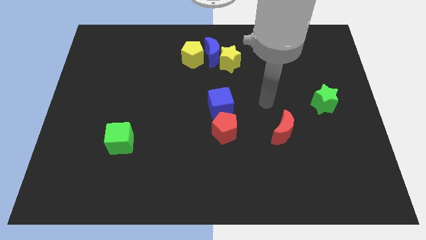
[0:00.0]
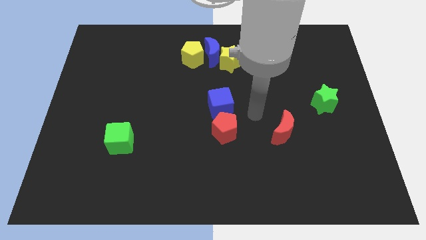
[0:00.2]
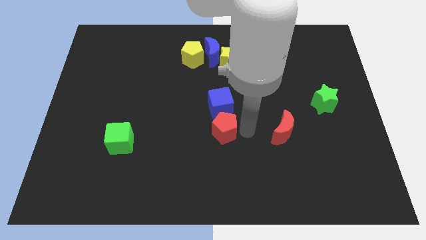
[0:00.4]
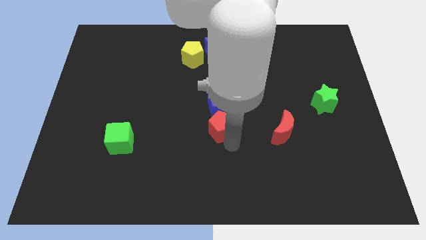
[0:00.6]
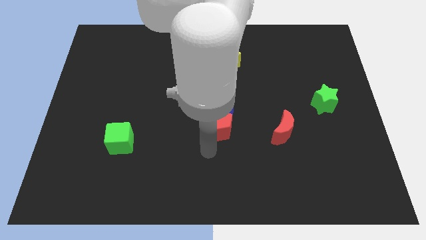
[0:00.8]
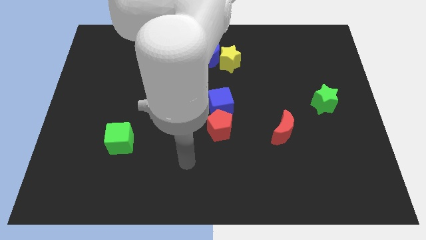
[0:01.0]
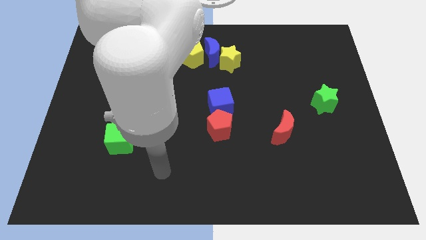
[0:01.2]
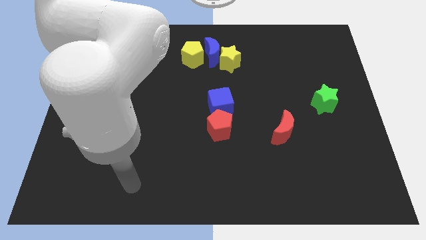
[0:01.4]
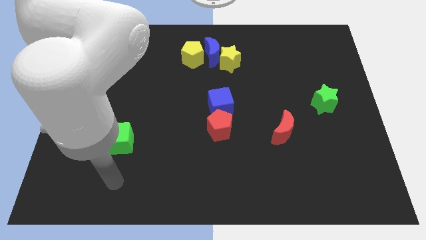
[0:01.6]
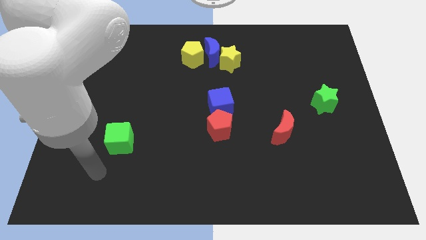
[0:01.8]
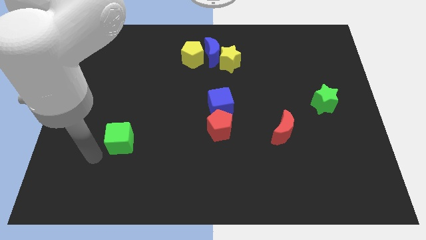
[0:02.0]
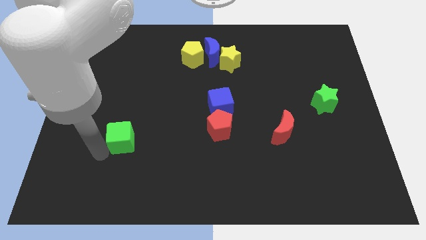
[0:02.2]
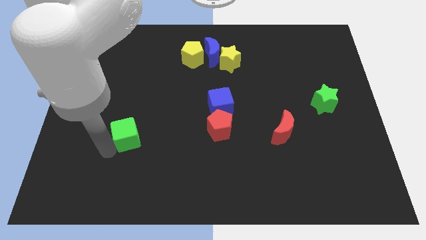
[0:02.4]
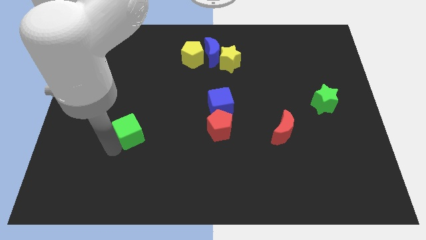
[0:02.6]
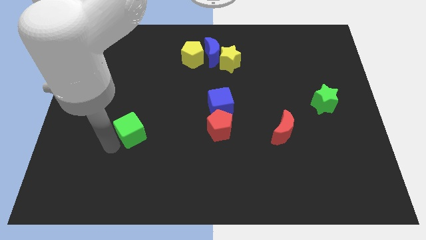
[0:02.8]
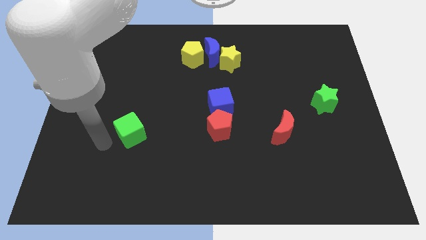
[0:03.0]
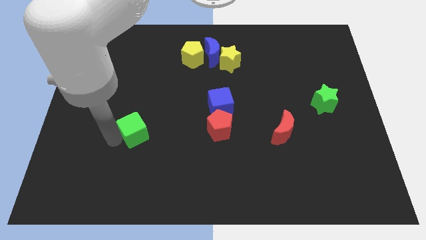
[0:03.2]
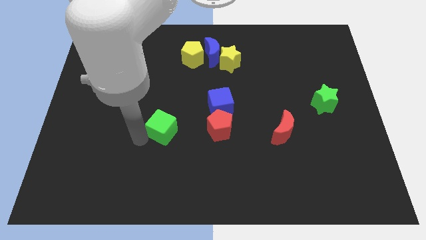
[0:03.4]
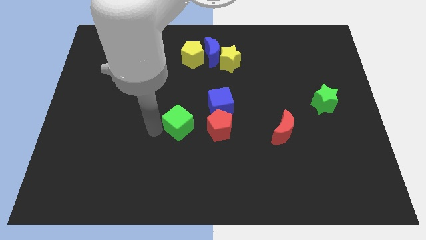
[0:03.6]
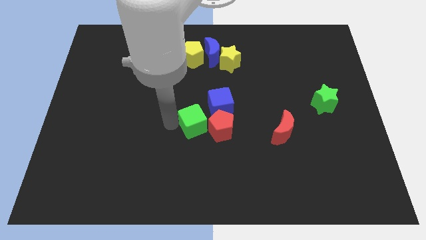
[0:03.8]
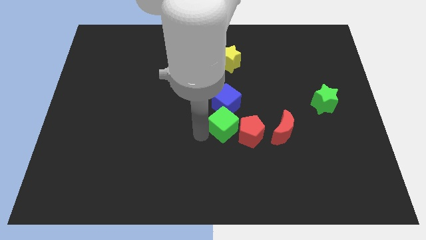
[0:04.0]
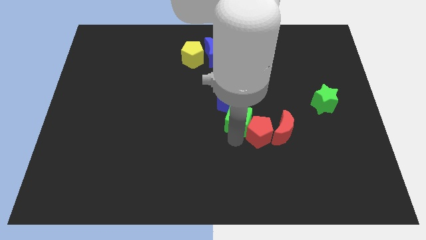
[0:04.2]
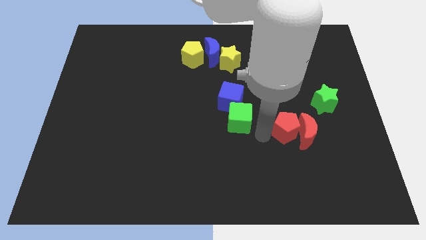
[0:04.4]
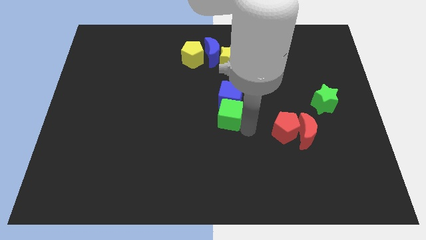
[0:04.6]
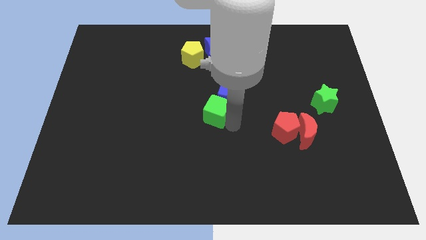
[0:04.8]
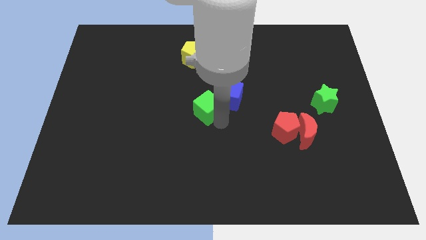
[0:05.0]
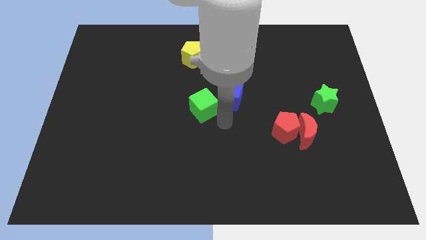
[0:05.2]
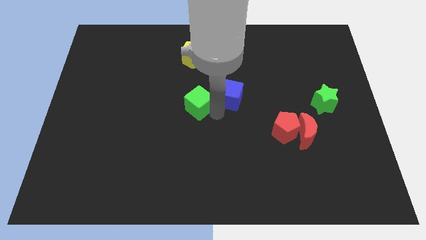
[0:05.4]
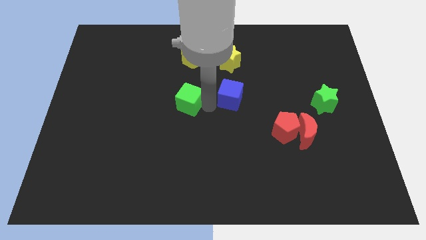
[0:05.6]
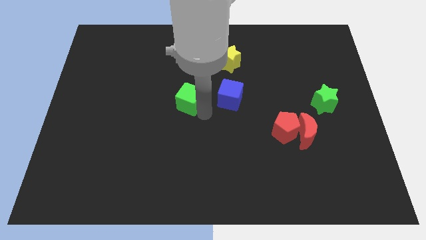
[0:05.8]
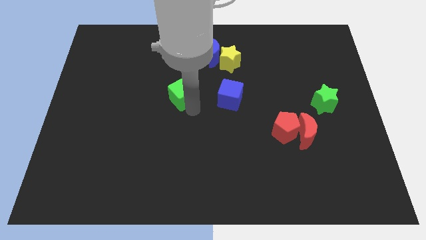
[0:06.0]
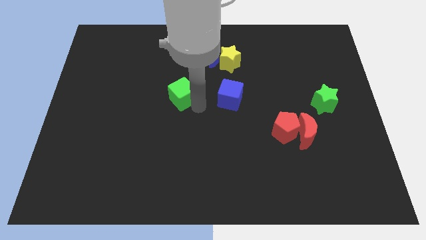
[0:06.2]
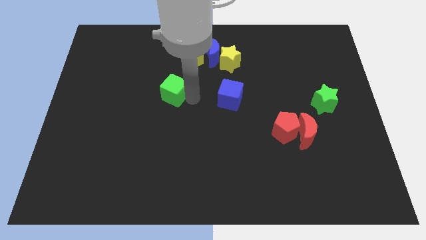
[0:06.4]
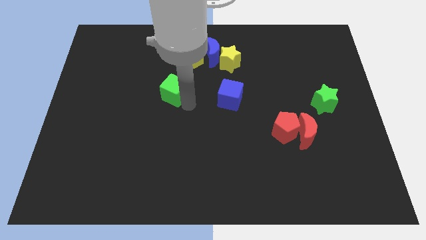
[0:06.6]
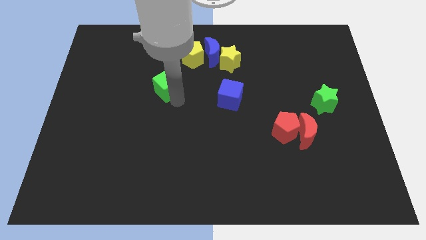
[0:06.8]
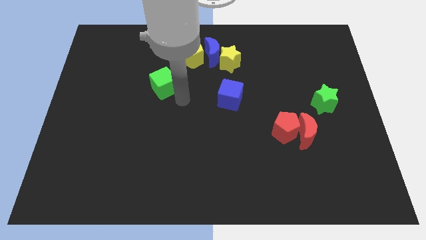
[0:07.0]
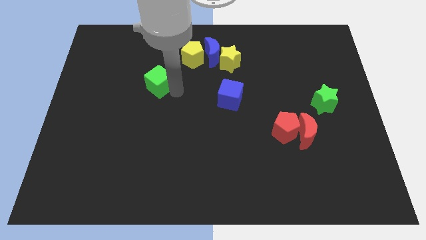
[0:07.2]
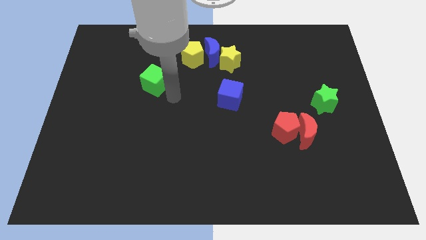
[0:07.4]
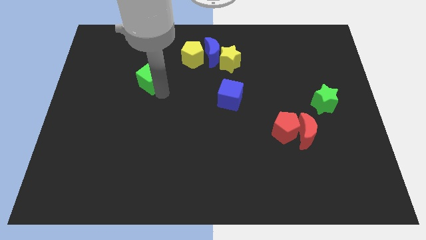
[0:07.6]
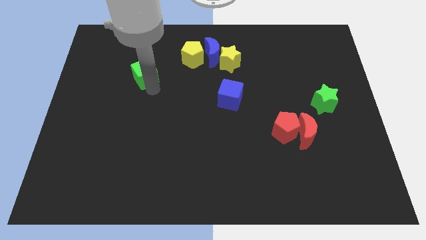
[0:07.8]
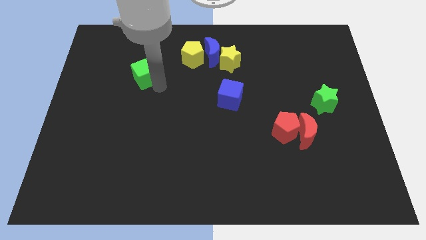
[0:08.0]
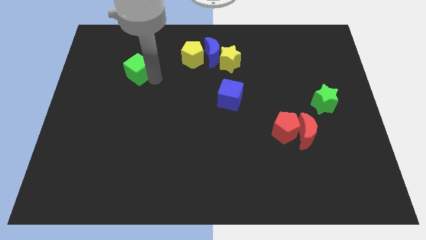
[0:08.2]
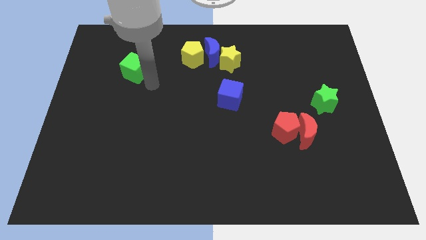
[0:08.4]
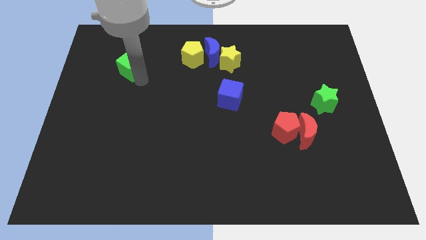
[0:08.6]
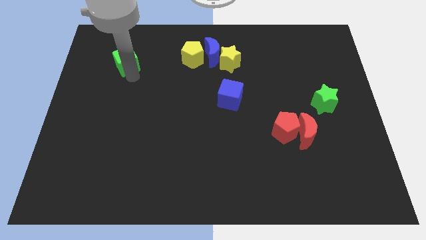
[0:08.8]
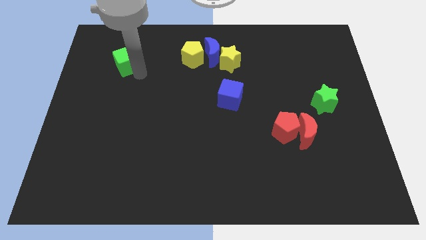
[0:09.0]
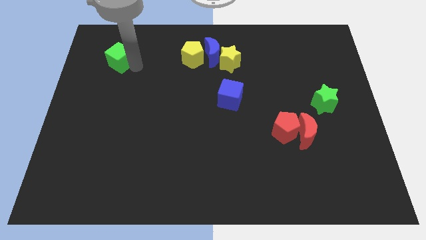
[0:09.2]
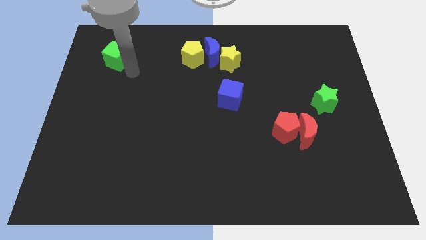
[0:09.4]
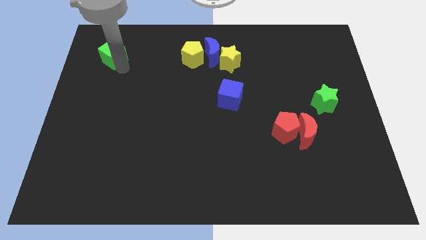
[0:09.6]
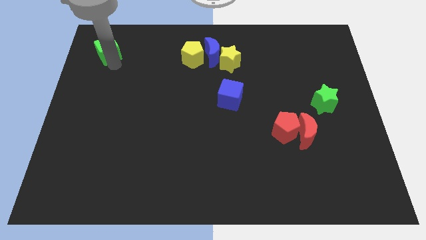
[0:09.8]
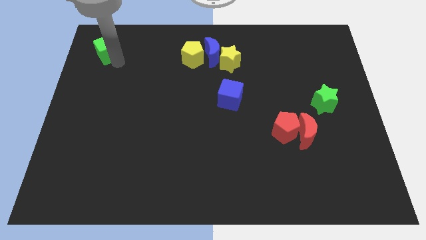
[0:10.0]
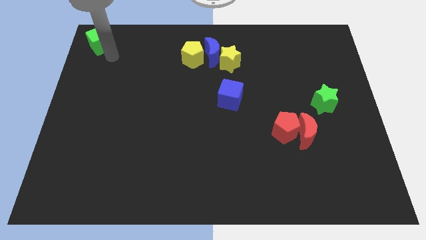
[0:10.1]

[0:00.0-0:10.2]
push the green cube to the top left

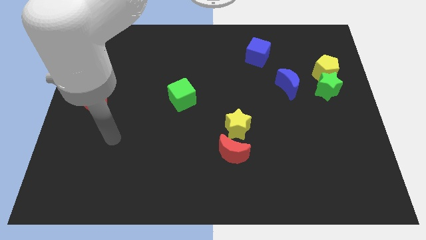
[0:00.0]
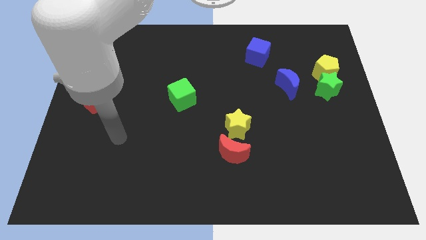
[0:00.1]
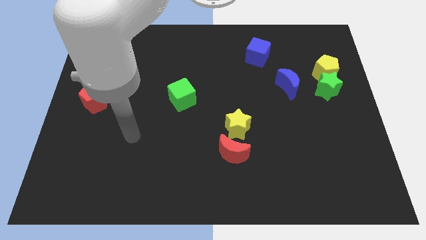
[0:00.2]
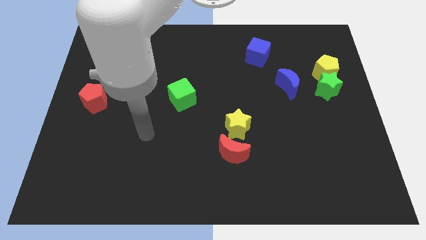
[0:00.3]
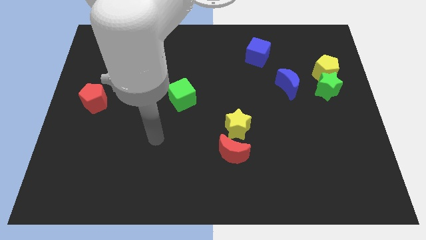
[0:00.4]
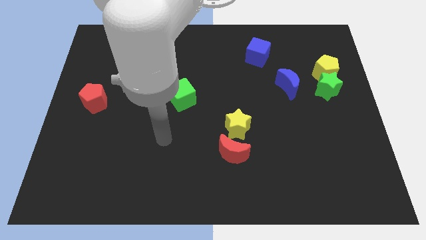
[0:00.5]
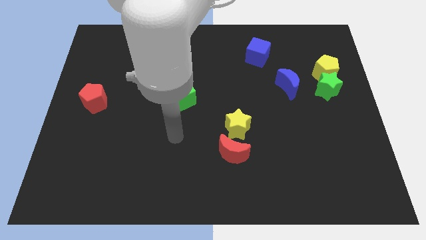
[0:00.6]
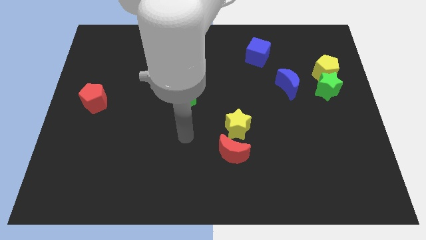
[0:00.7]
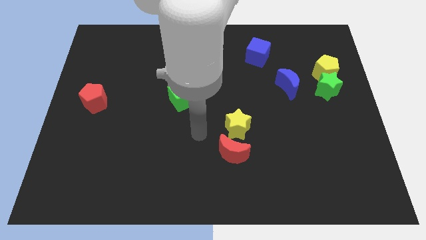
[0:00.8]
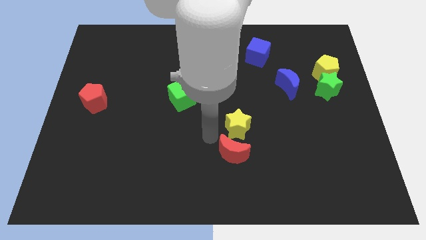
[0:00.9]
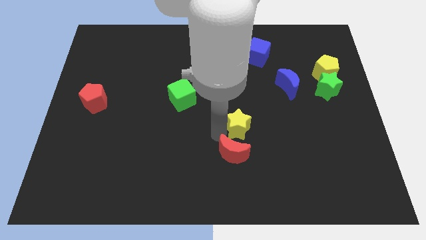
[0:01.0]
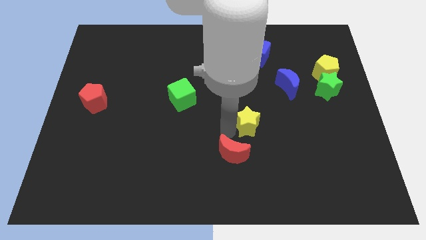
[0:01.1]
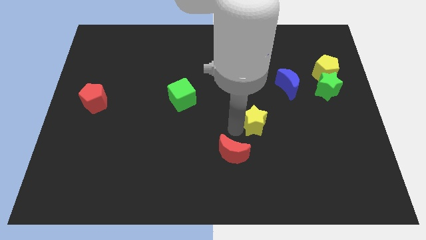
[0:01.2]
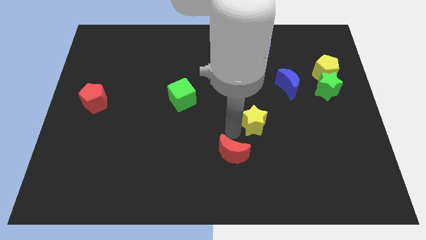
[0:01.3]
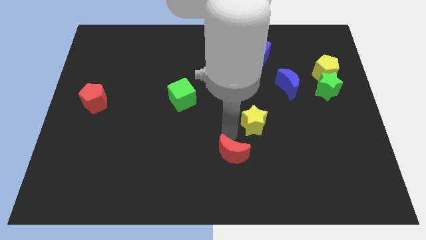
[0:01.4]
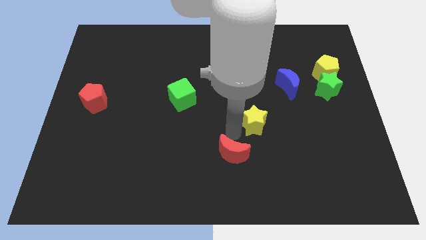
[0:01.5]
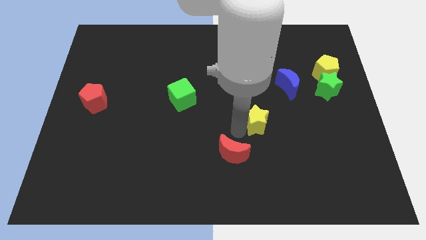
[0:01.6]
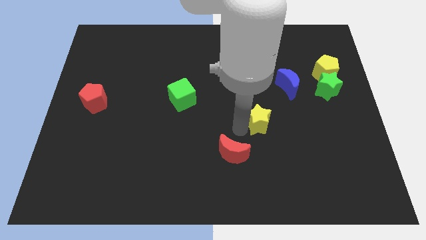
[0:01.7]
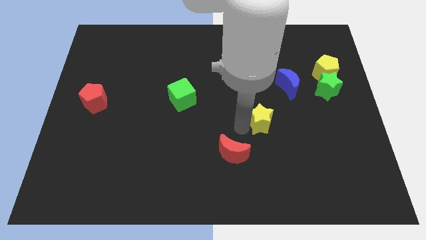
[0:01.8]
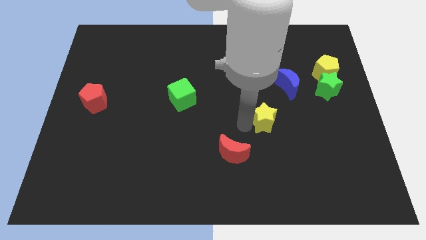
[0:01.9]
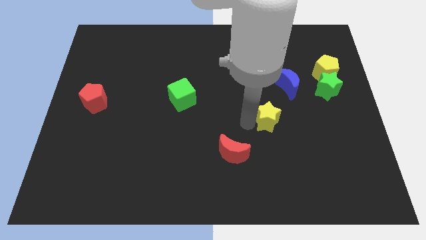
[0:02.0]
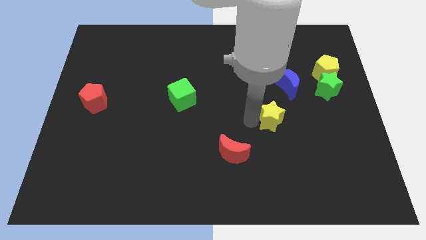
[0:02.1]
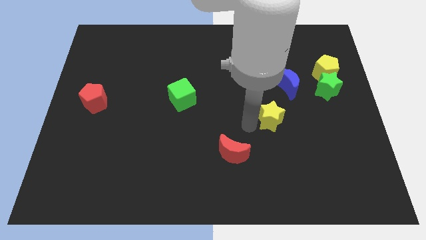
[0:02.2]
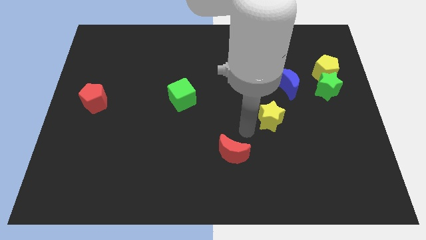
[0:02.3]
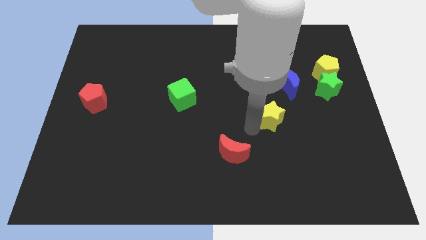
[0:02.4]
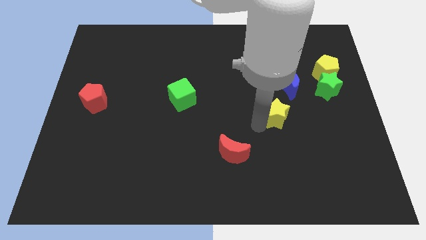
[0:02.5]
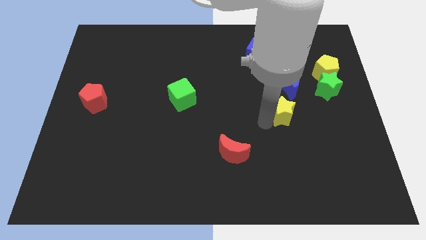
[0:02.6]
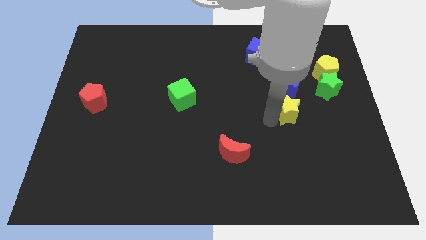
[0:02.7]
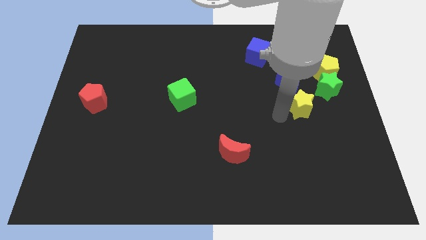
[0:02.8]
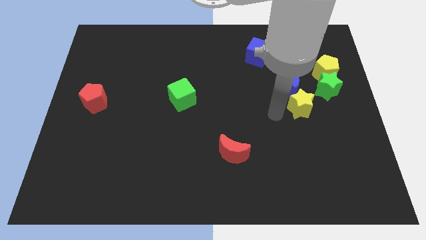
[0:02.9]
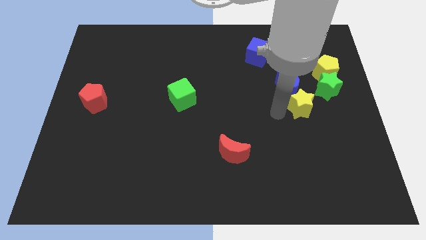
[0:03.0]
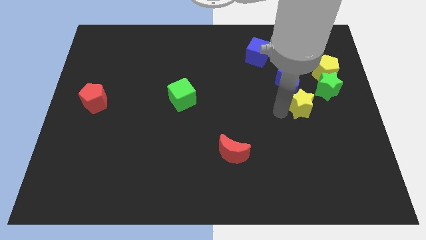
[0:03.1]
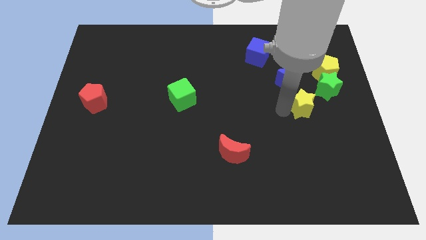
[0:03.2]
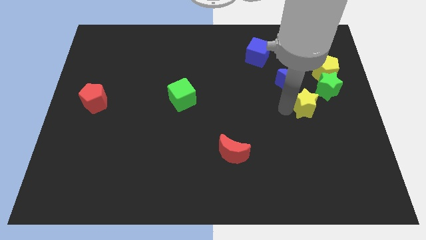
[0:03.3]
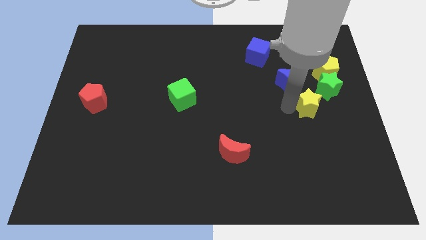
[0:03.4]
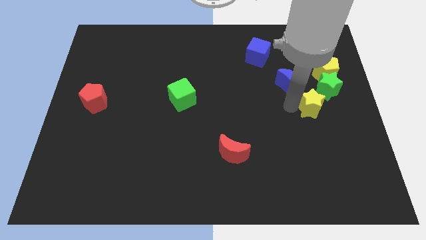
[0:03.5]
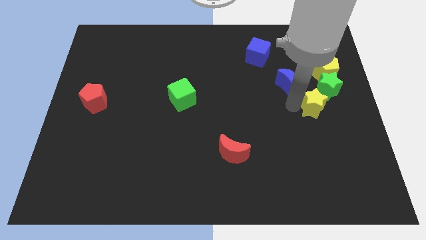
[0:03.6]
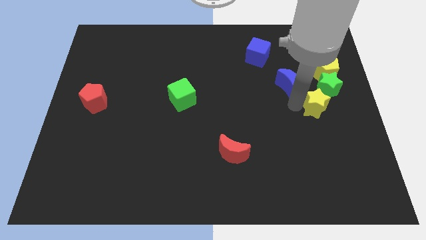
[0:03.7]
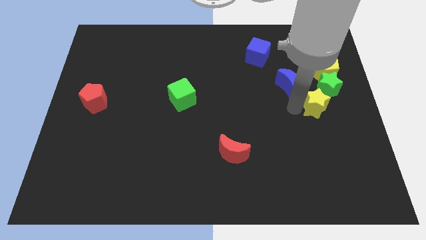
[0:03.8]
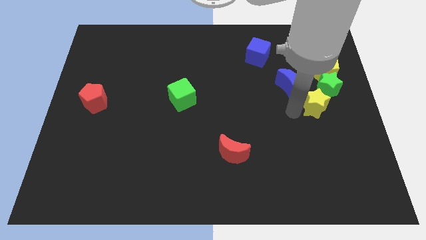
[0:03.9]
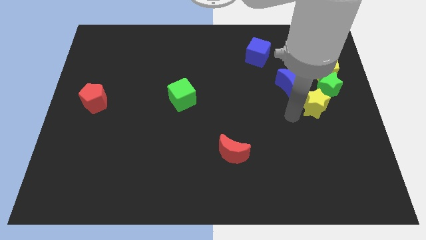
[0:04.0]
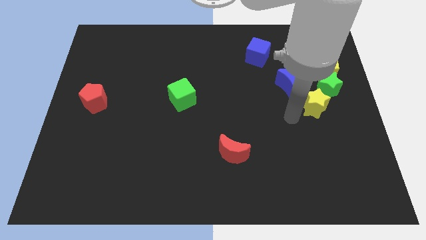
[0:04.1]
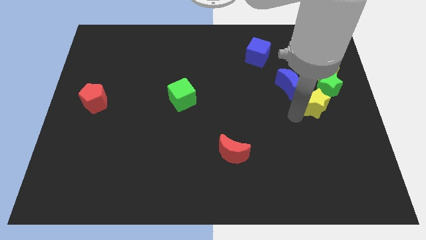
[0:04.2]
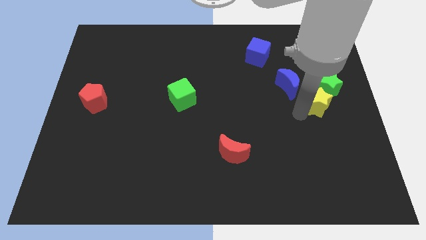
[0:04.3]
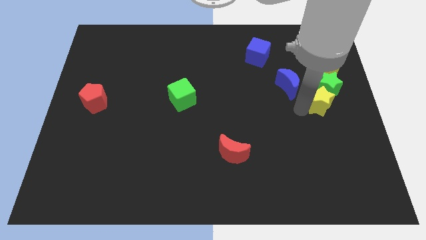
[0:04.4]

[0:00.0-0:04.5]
move the yellow star to the right side
